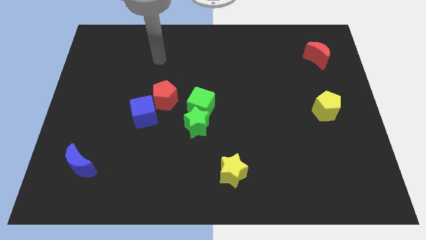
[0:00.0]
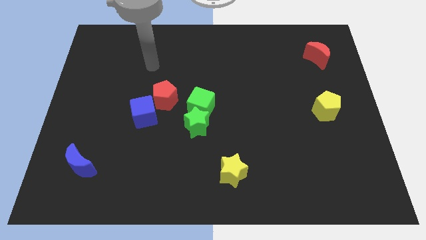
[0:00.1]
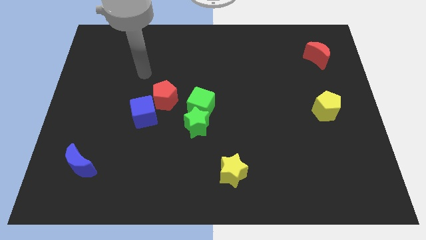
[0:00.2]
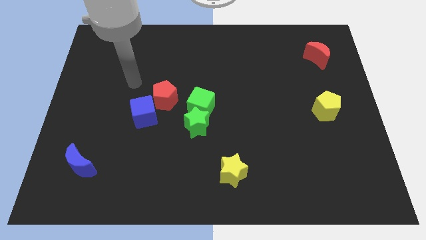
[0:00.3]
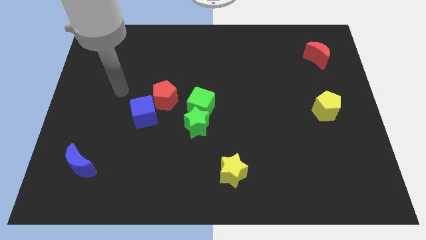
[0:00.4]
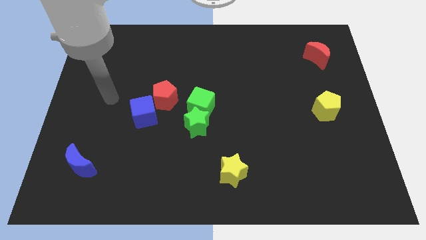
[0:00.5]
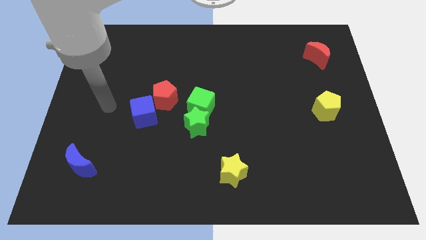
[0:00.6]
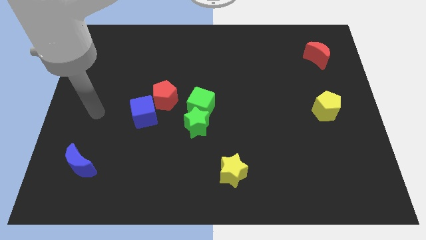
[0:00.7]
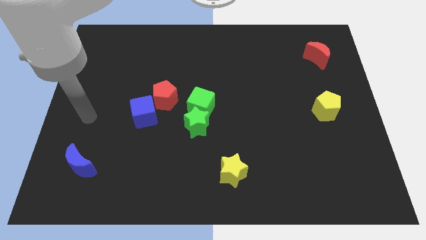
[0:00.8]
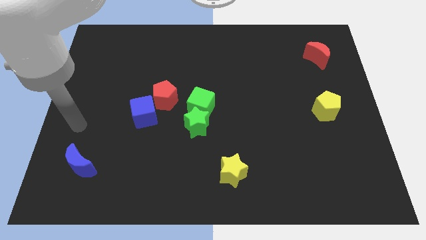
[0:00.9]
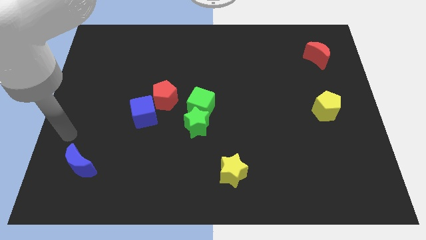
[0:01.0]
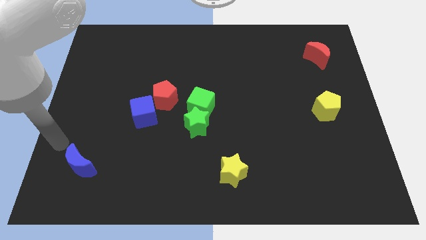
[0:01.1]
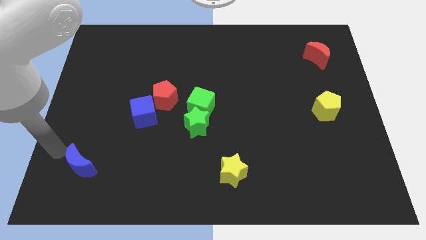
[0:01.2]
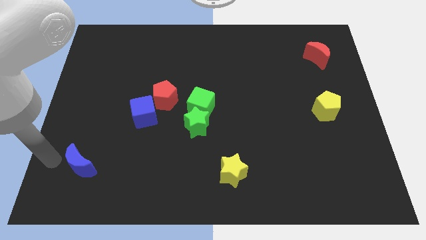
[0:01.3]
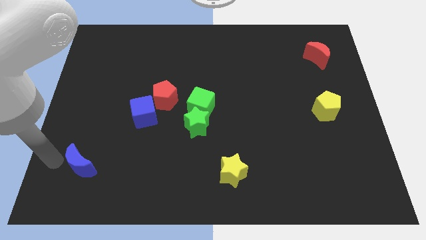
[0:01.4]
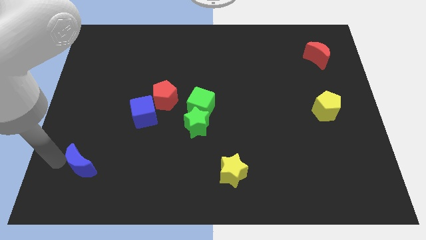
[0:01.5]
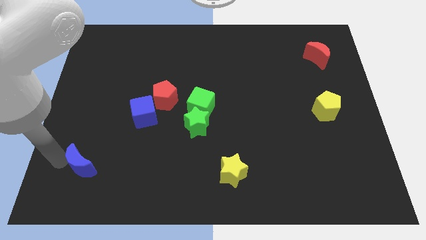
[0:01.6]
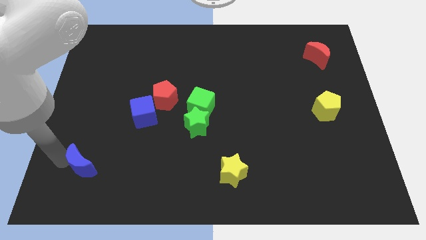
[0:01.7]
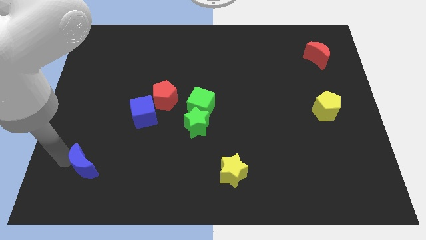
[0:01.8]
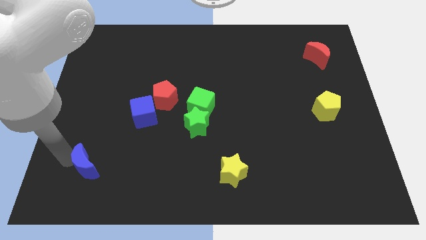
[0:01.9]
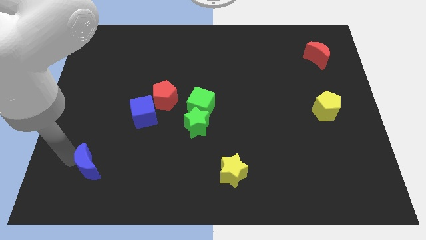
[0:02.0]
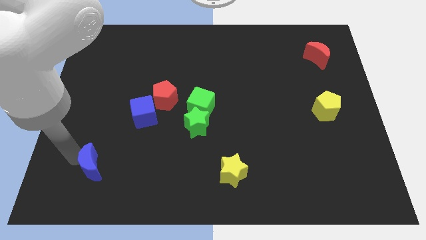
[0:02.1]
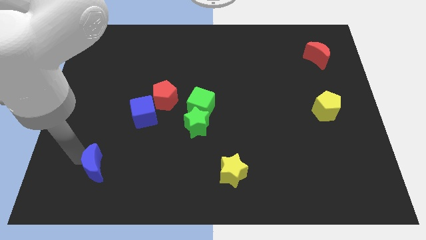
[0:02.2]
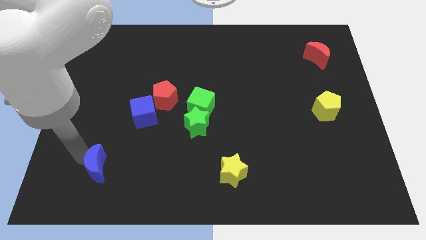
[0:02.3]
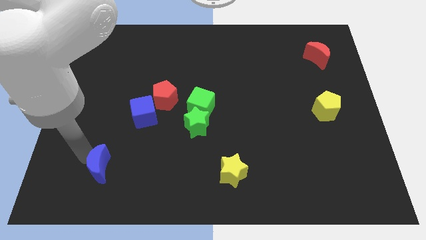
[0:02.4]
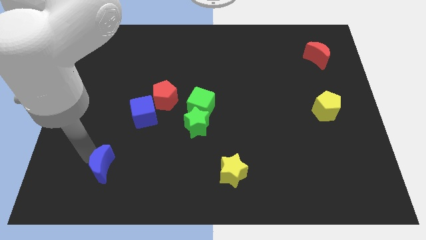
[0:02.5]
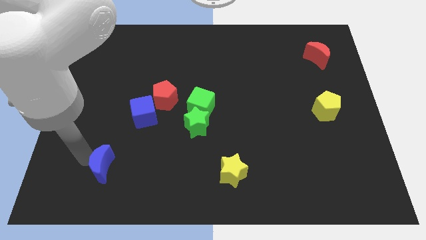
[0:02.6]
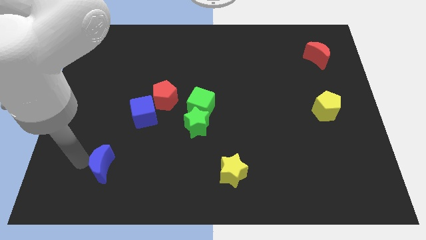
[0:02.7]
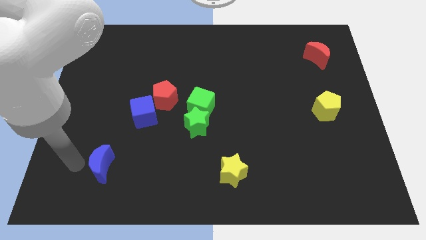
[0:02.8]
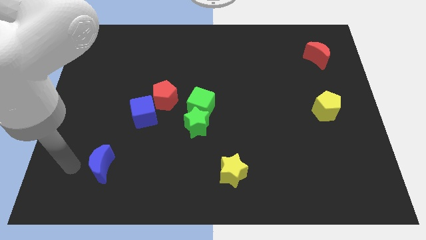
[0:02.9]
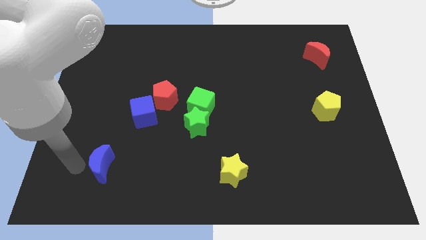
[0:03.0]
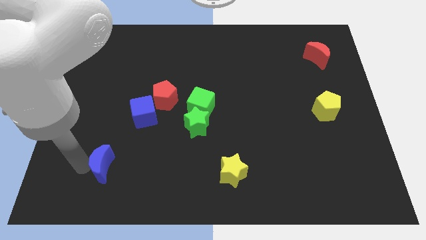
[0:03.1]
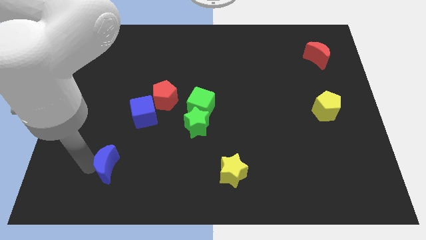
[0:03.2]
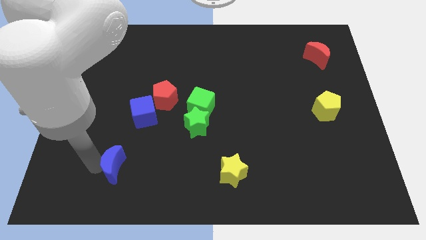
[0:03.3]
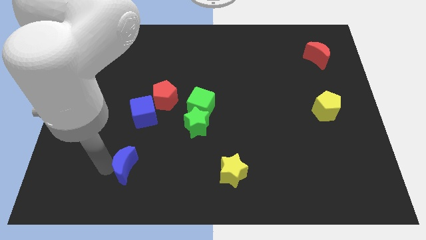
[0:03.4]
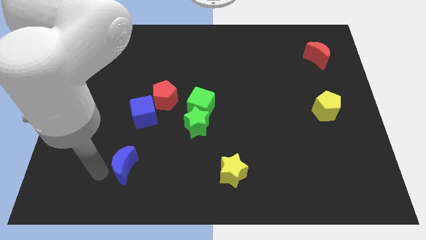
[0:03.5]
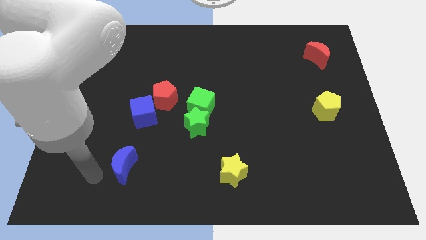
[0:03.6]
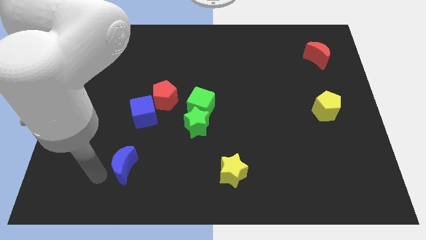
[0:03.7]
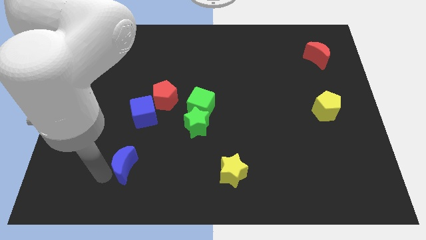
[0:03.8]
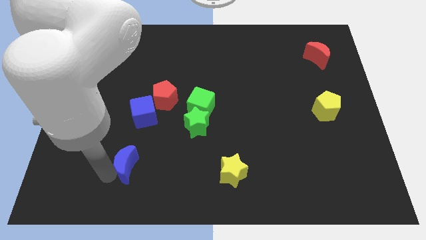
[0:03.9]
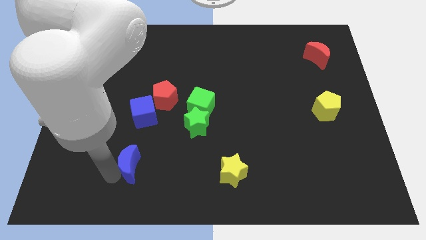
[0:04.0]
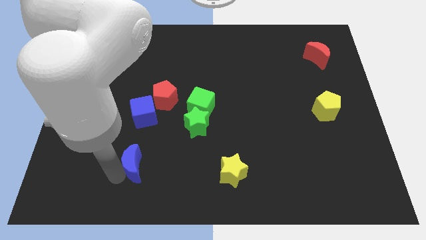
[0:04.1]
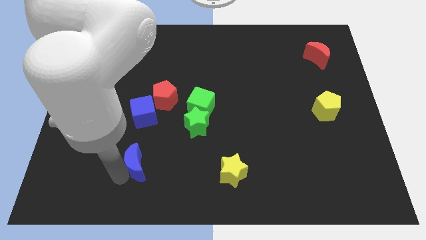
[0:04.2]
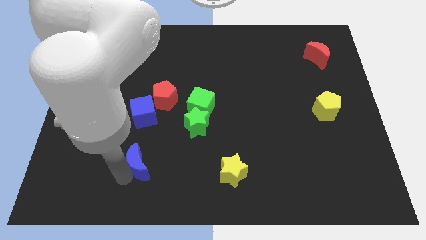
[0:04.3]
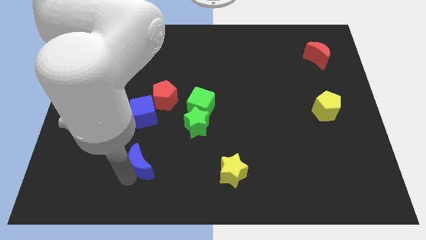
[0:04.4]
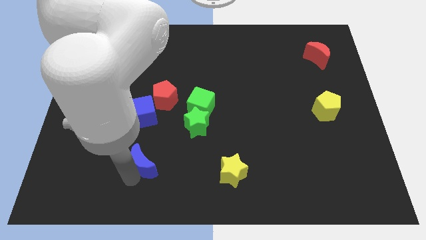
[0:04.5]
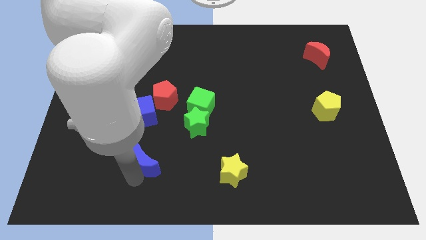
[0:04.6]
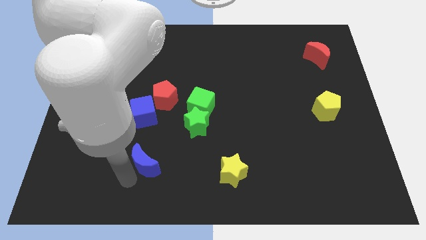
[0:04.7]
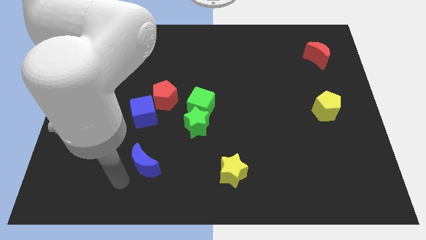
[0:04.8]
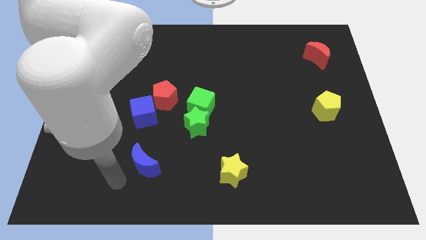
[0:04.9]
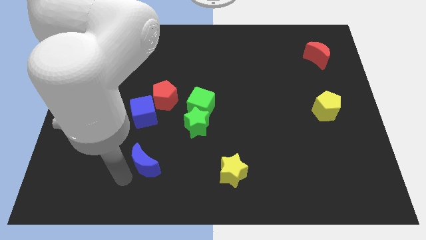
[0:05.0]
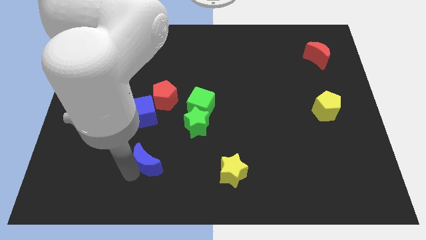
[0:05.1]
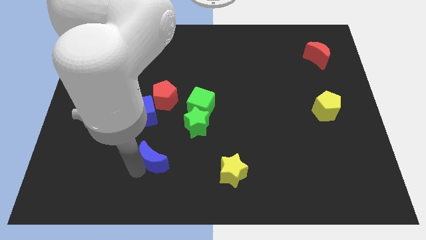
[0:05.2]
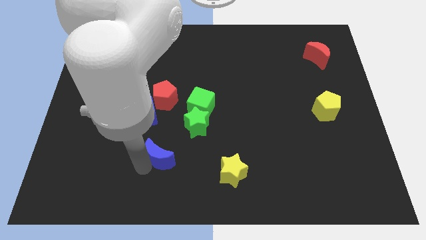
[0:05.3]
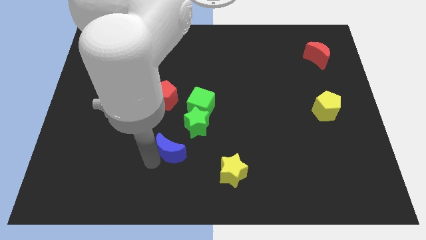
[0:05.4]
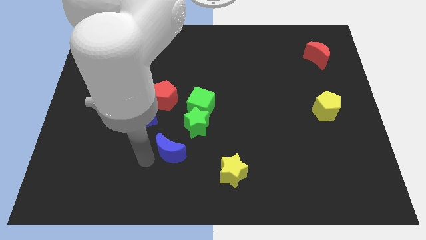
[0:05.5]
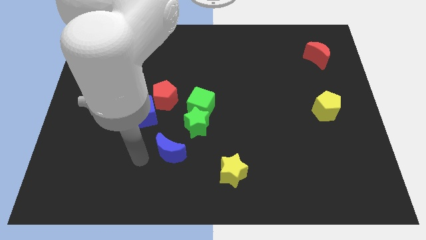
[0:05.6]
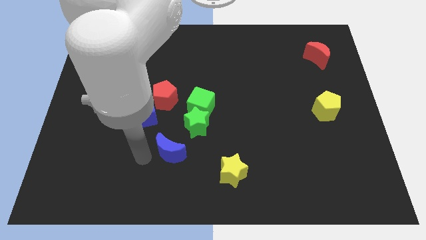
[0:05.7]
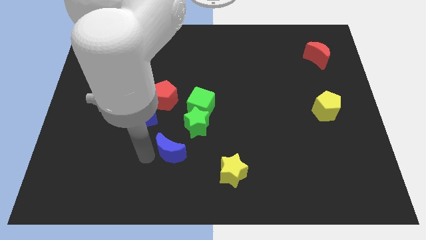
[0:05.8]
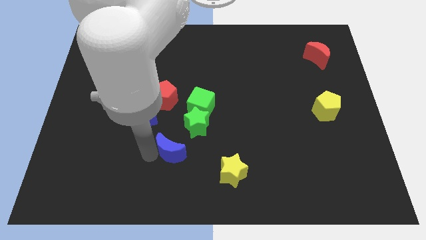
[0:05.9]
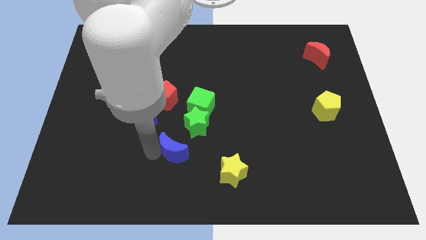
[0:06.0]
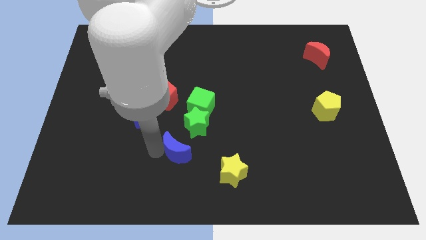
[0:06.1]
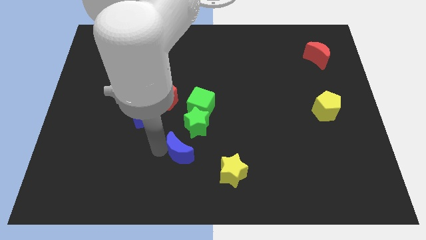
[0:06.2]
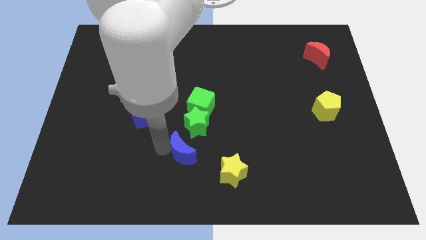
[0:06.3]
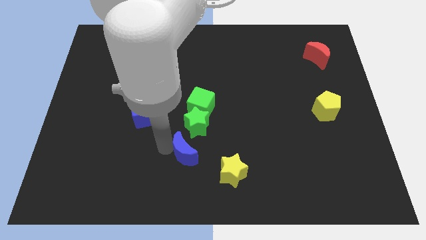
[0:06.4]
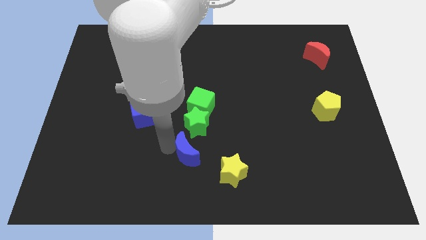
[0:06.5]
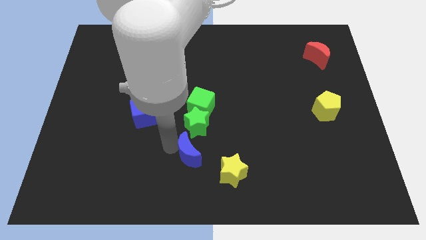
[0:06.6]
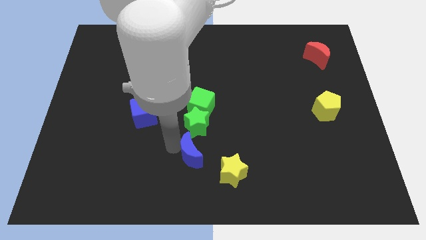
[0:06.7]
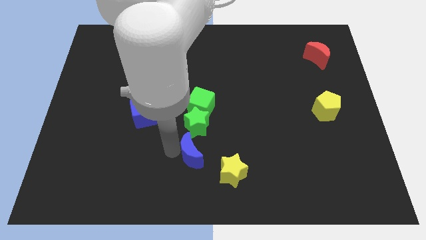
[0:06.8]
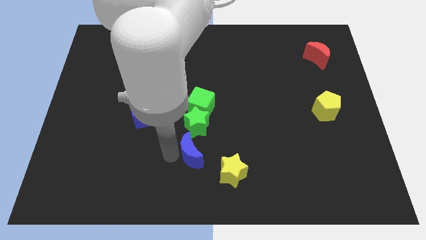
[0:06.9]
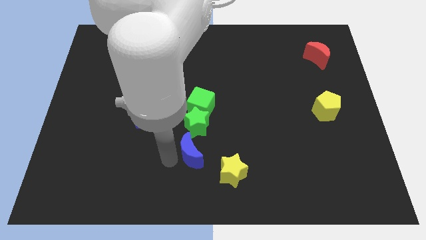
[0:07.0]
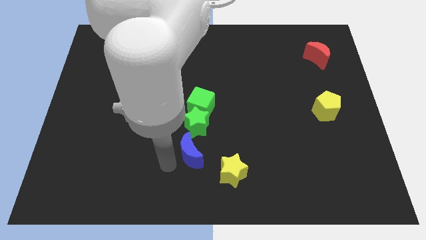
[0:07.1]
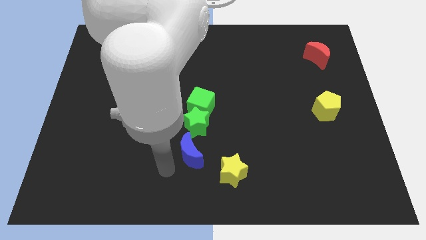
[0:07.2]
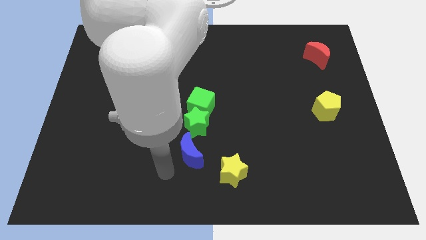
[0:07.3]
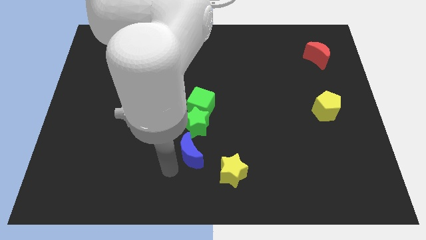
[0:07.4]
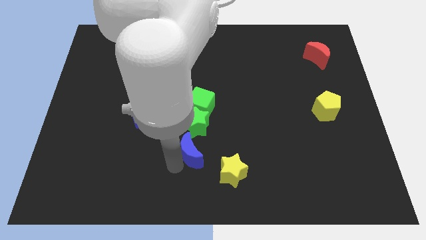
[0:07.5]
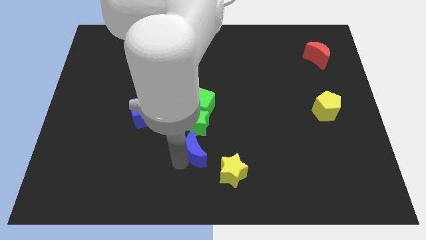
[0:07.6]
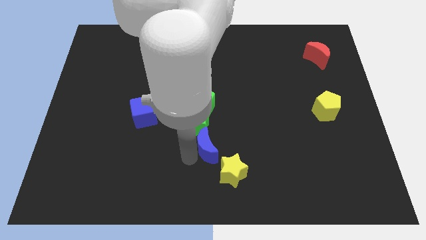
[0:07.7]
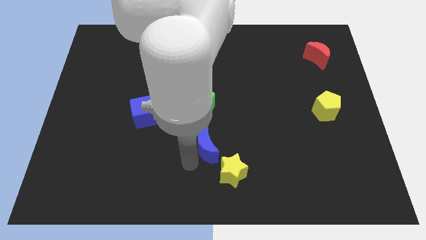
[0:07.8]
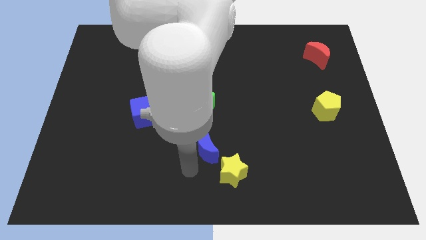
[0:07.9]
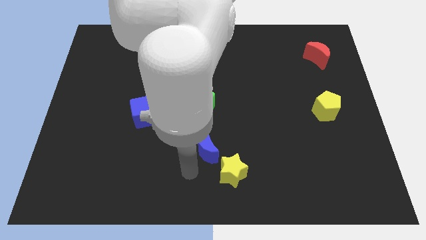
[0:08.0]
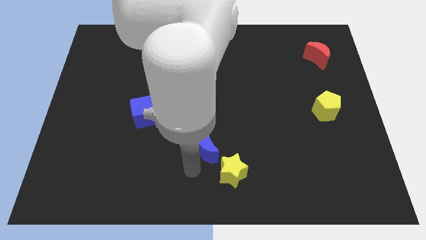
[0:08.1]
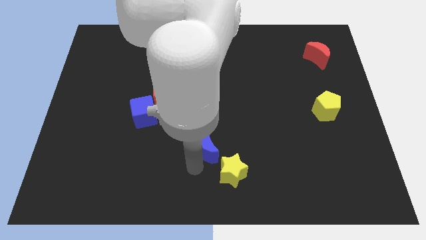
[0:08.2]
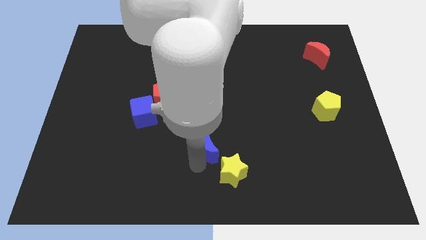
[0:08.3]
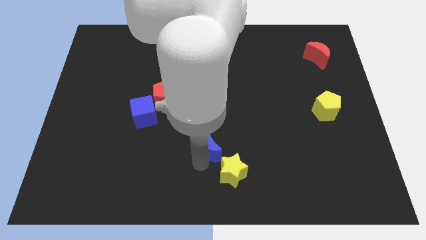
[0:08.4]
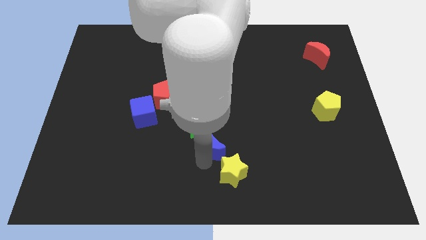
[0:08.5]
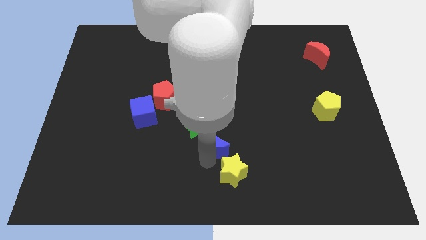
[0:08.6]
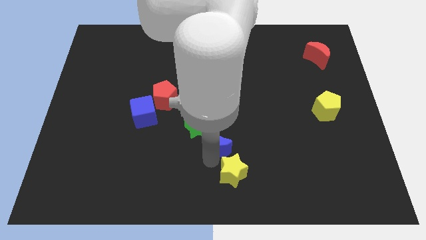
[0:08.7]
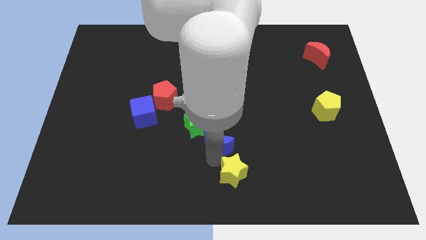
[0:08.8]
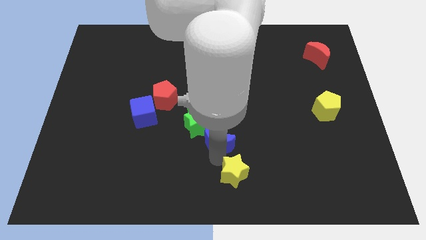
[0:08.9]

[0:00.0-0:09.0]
slide the blue moon to the bottom right side of the green cube
